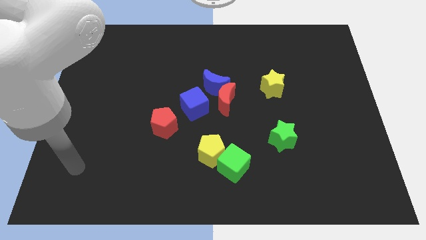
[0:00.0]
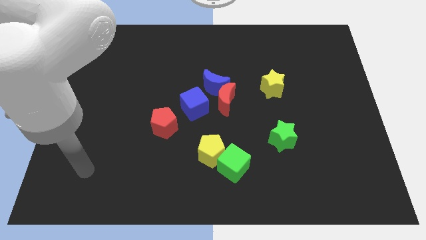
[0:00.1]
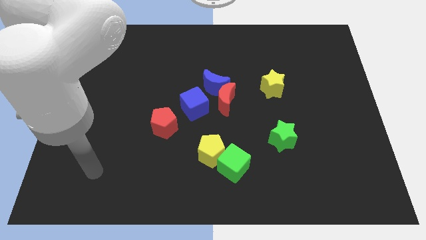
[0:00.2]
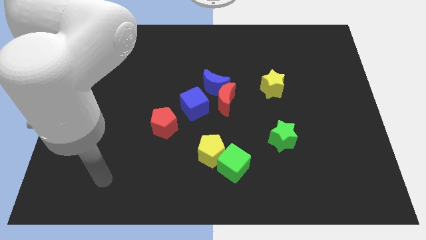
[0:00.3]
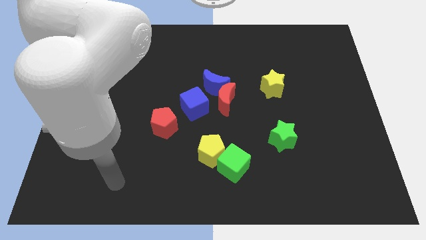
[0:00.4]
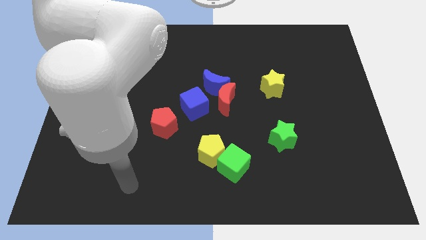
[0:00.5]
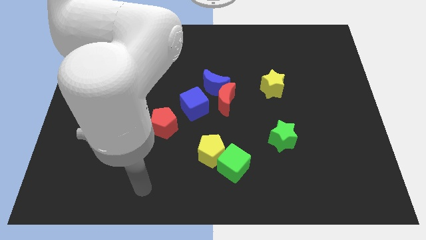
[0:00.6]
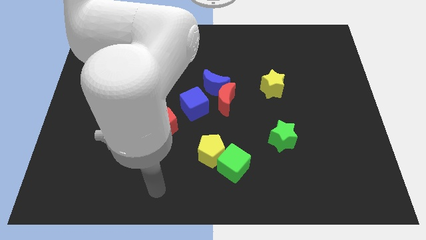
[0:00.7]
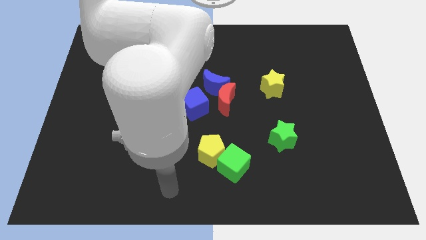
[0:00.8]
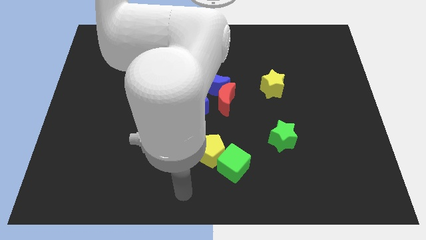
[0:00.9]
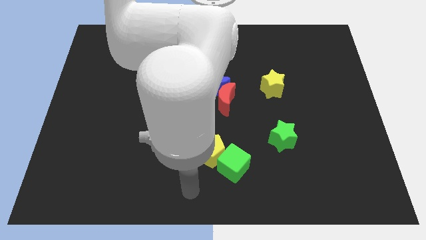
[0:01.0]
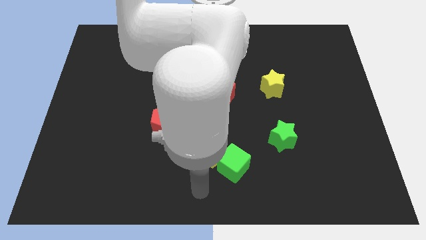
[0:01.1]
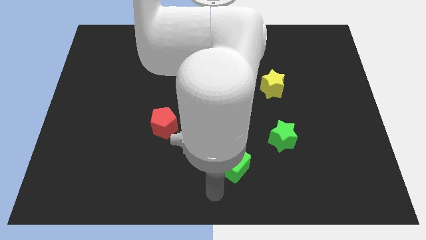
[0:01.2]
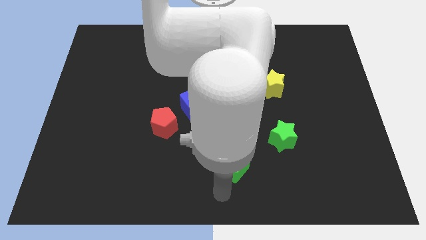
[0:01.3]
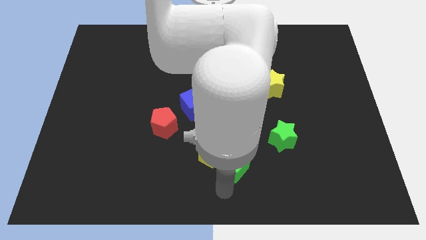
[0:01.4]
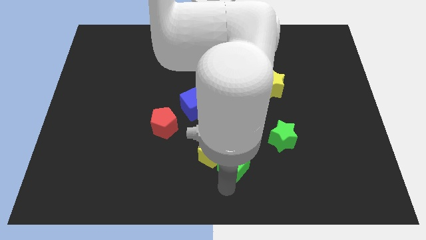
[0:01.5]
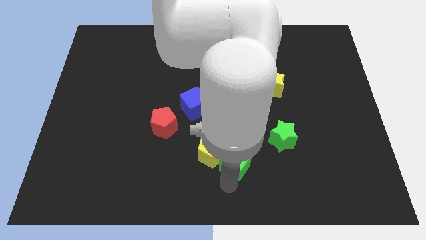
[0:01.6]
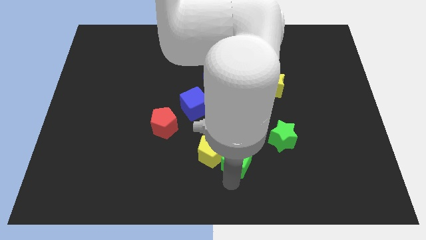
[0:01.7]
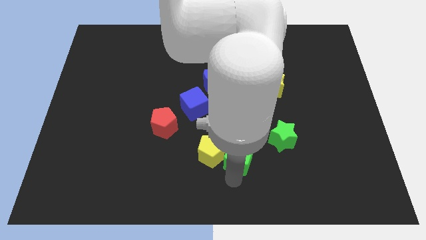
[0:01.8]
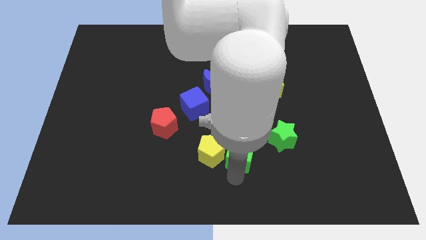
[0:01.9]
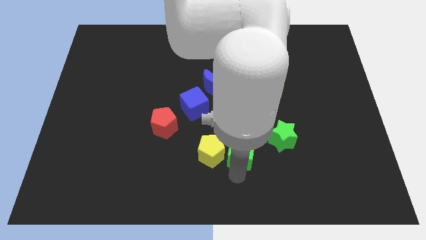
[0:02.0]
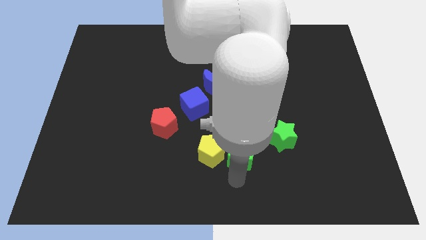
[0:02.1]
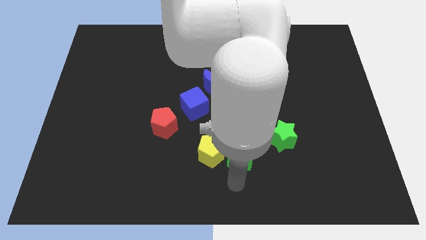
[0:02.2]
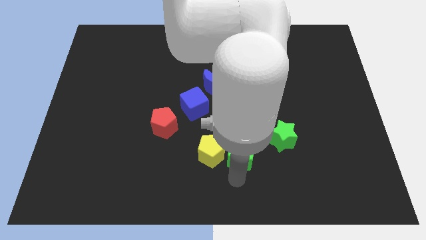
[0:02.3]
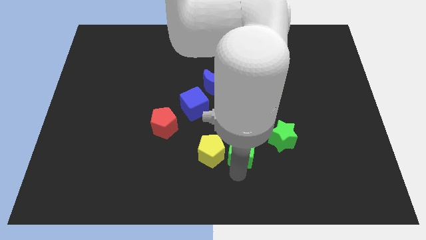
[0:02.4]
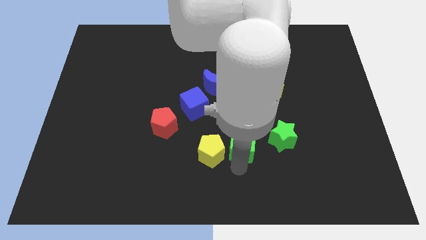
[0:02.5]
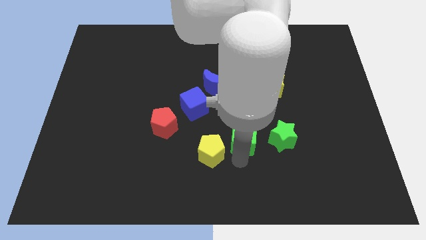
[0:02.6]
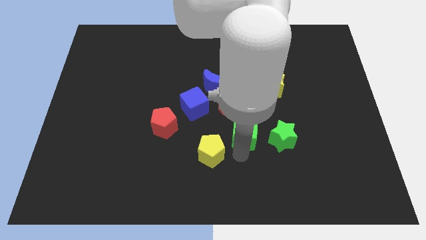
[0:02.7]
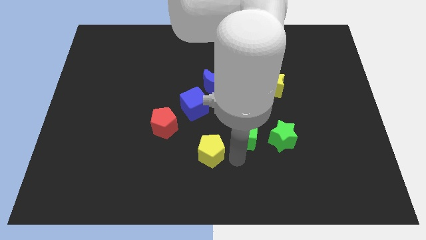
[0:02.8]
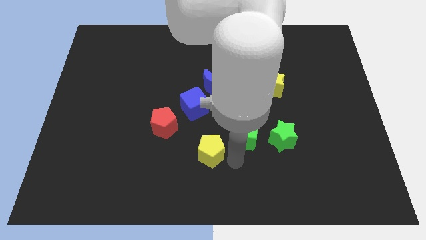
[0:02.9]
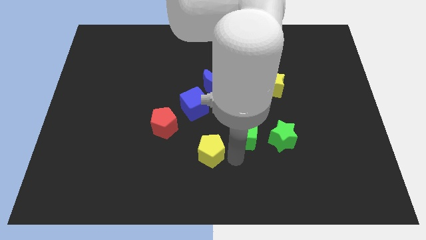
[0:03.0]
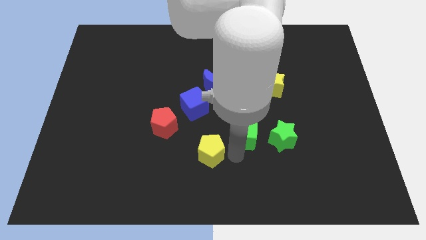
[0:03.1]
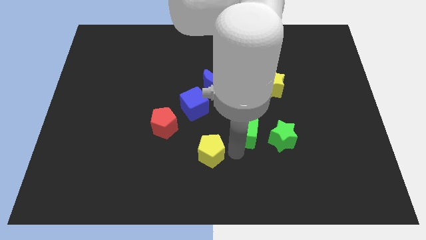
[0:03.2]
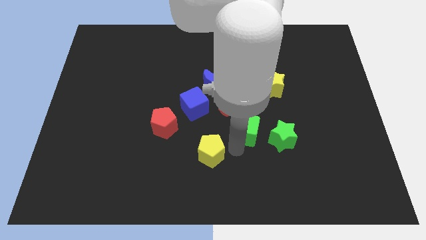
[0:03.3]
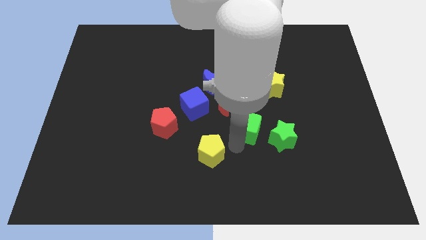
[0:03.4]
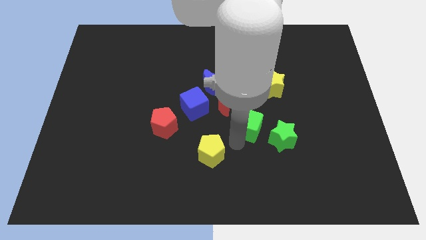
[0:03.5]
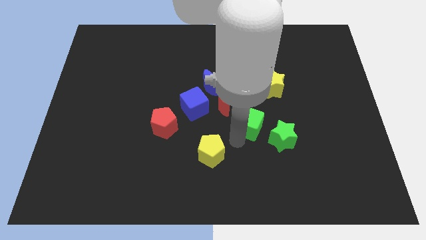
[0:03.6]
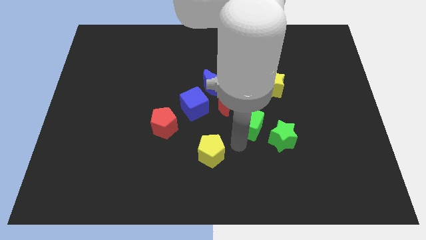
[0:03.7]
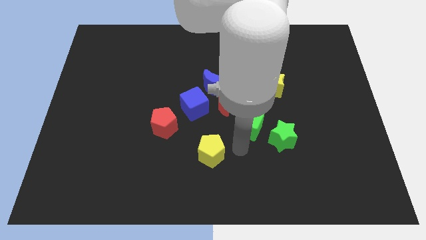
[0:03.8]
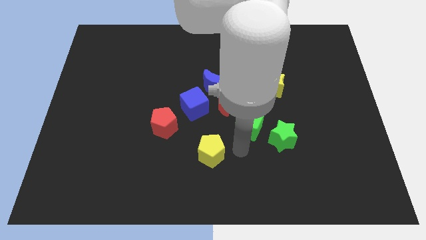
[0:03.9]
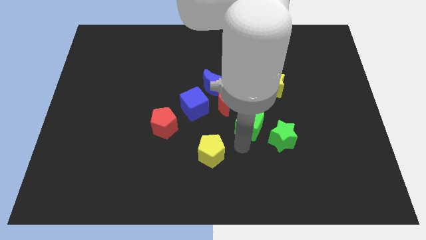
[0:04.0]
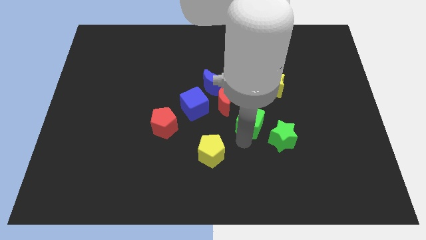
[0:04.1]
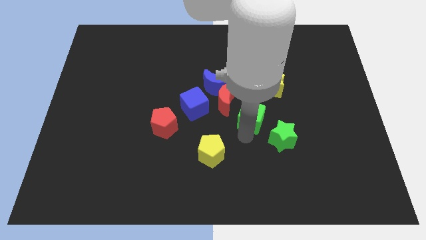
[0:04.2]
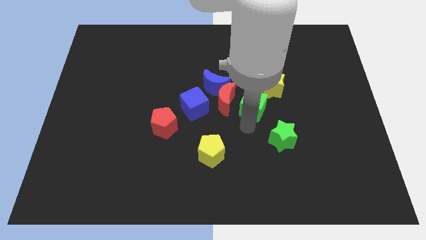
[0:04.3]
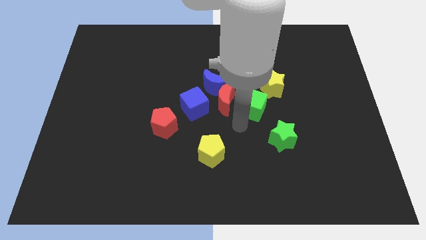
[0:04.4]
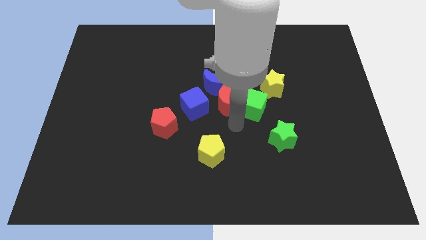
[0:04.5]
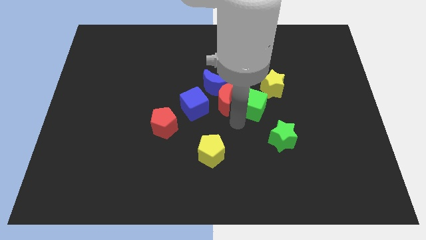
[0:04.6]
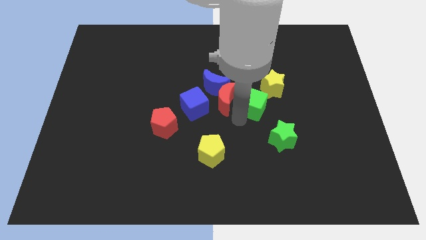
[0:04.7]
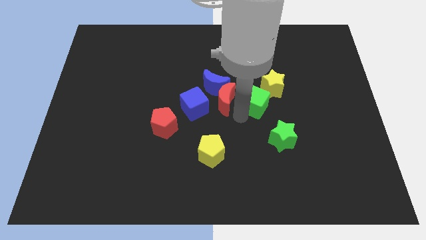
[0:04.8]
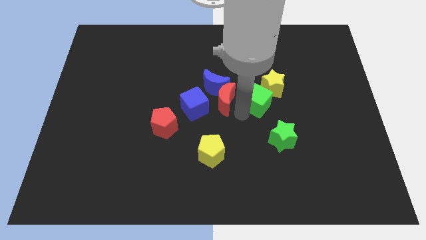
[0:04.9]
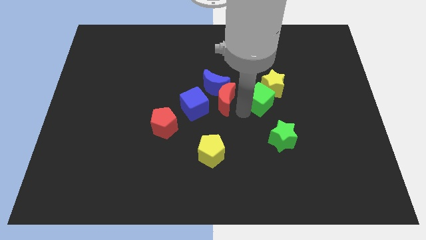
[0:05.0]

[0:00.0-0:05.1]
slide the green cube to the yellow star

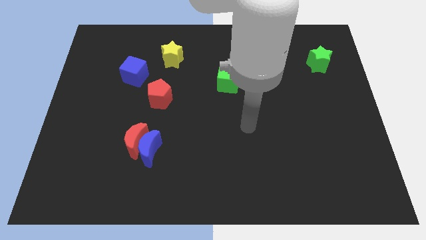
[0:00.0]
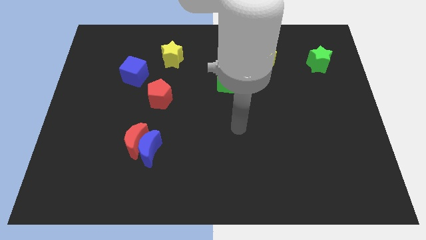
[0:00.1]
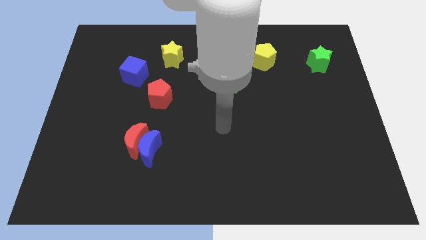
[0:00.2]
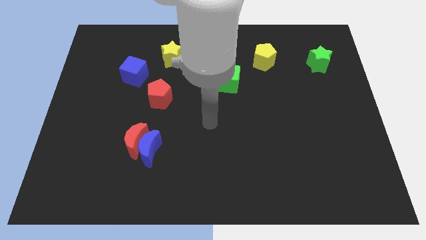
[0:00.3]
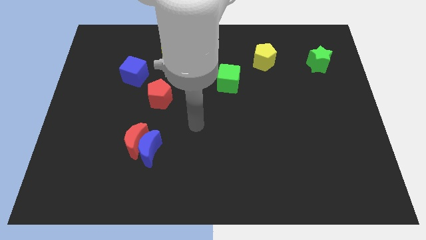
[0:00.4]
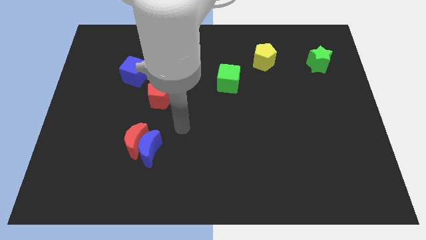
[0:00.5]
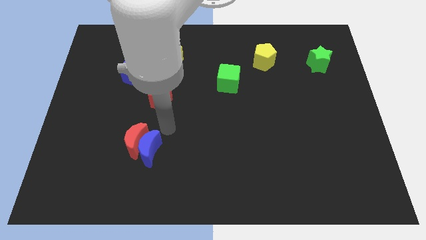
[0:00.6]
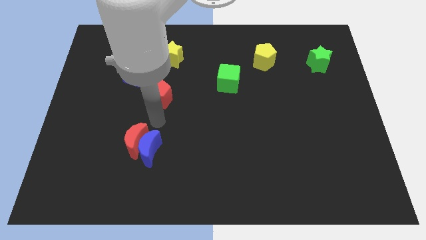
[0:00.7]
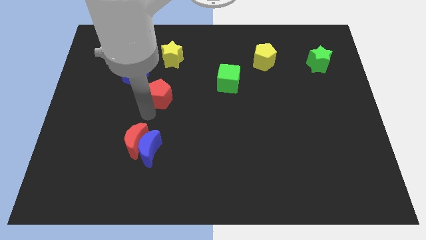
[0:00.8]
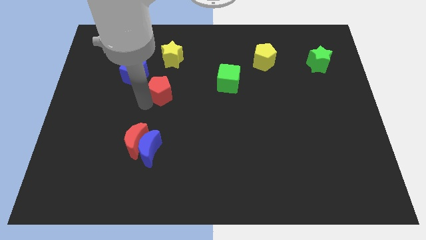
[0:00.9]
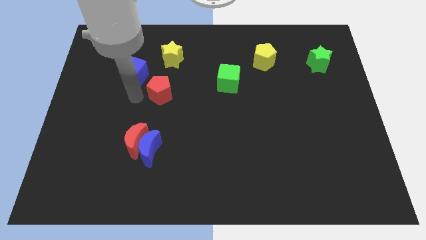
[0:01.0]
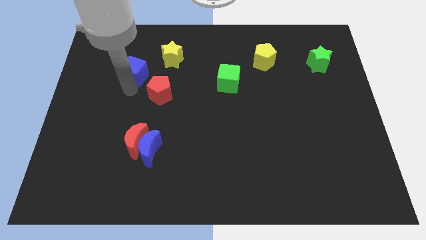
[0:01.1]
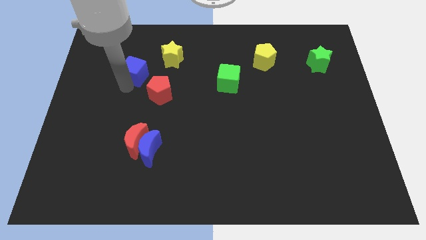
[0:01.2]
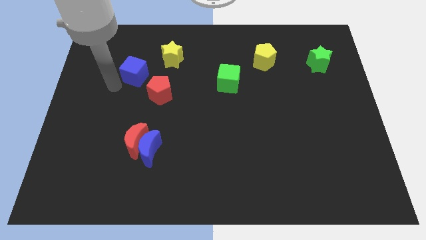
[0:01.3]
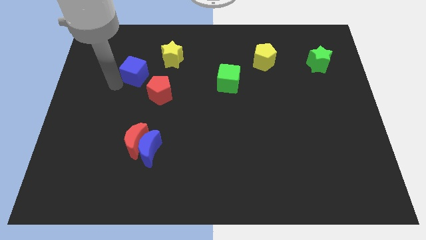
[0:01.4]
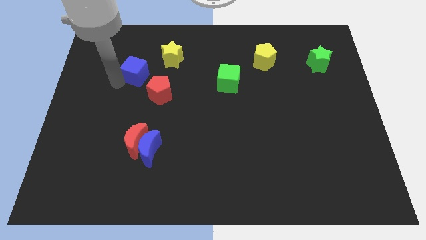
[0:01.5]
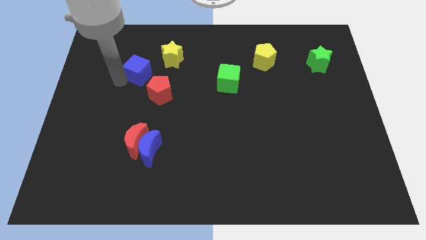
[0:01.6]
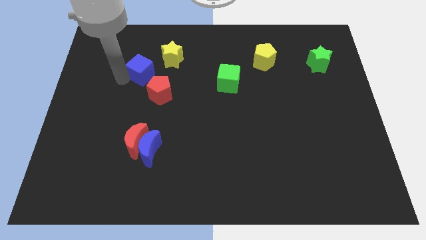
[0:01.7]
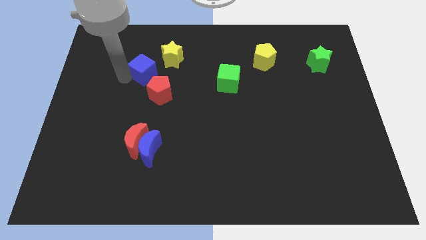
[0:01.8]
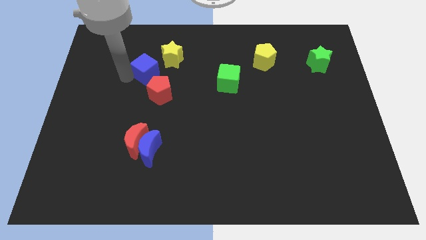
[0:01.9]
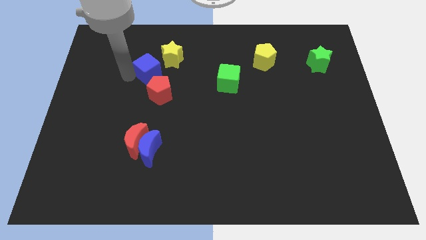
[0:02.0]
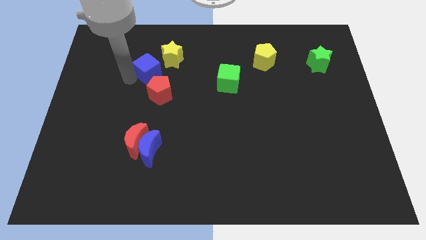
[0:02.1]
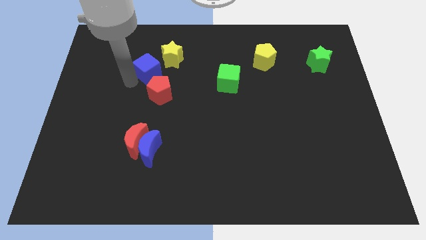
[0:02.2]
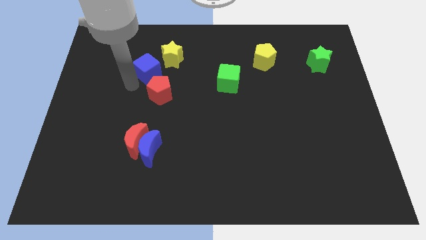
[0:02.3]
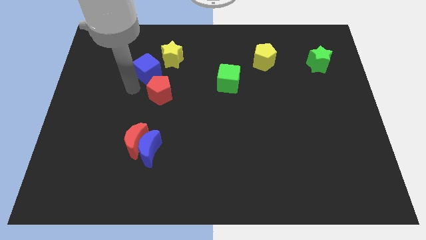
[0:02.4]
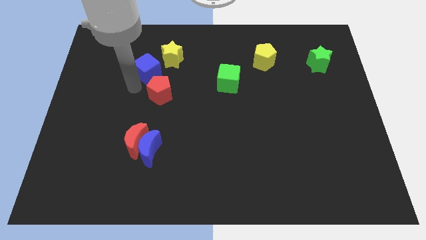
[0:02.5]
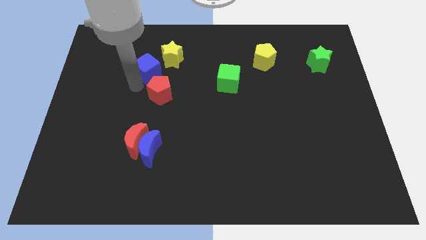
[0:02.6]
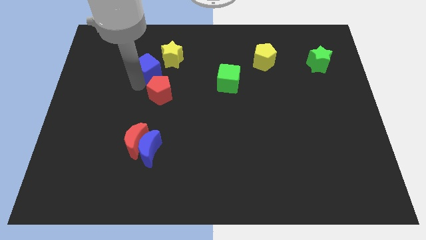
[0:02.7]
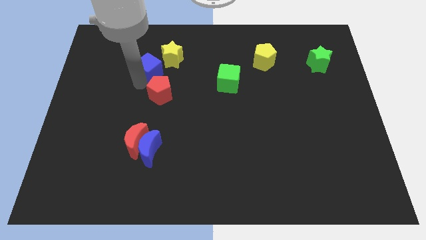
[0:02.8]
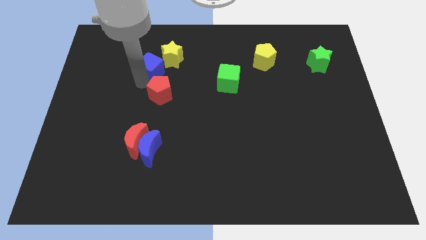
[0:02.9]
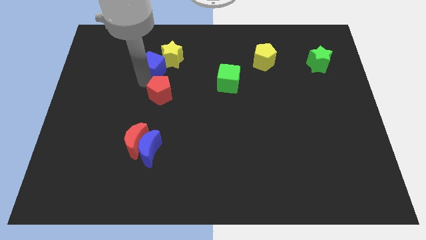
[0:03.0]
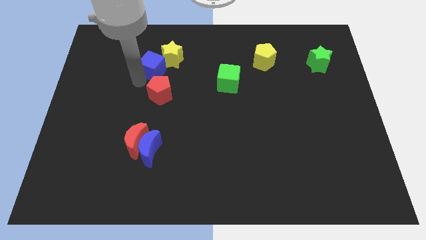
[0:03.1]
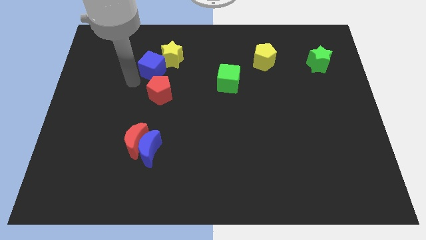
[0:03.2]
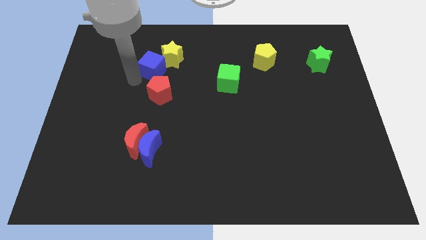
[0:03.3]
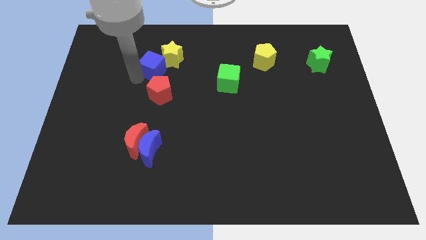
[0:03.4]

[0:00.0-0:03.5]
move the blue cube next to the yellow star
